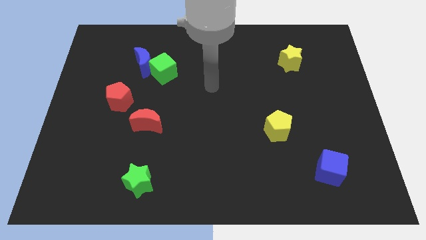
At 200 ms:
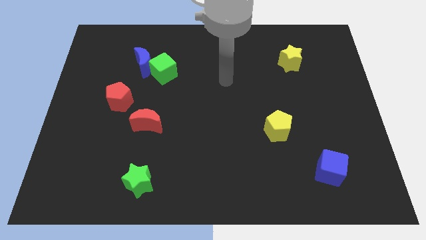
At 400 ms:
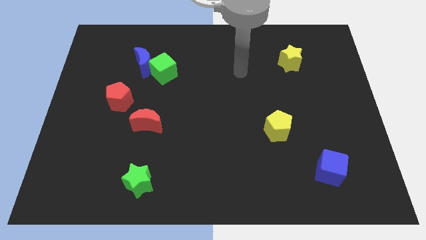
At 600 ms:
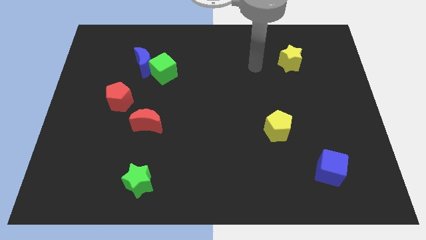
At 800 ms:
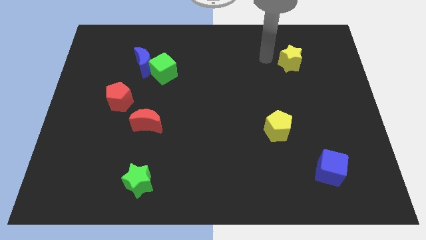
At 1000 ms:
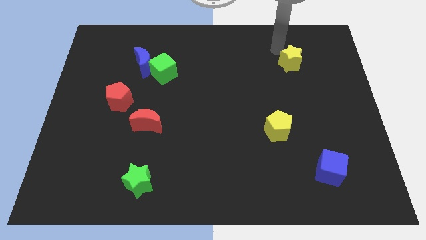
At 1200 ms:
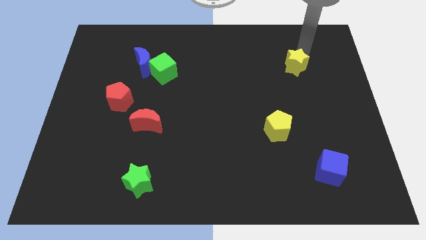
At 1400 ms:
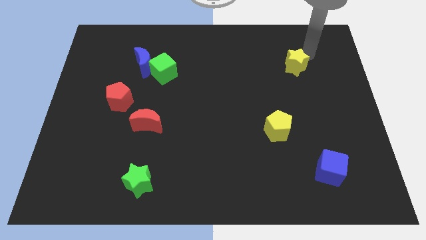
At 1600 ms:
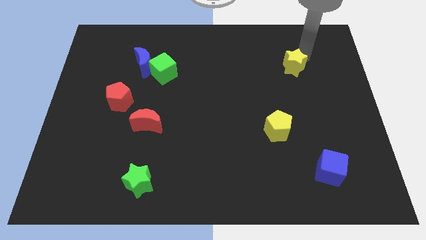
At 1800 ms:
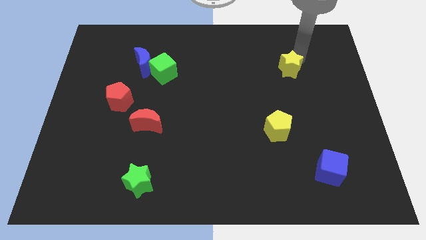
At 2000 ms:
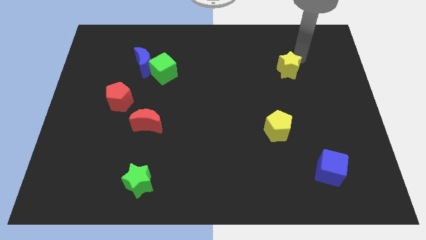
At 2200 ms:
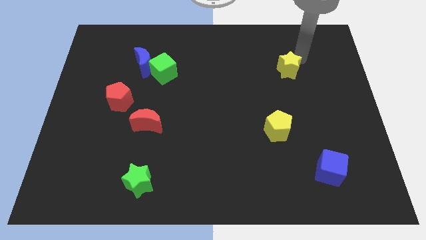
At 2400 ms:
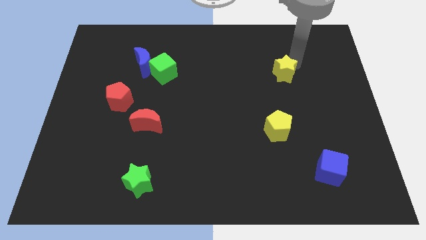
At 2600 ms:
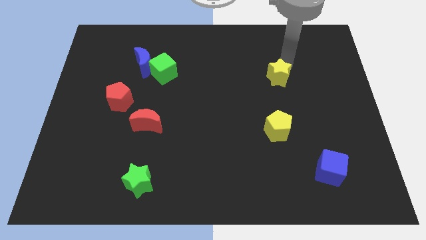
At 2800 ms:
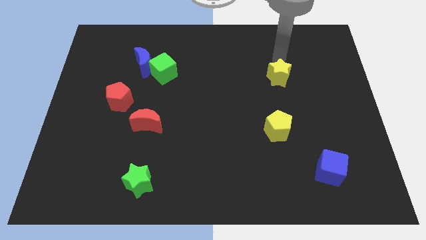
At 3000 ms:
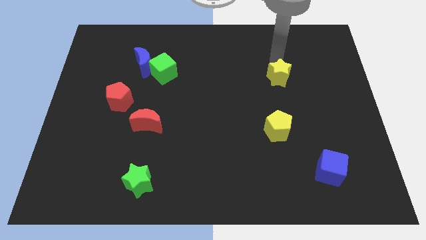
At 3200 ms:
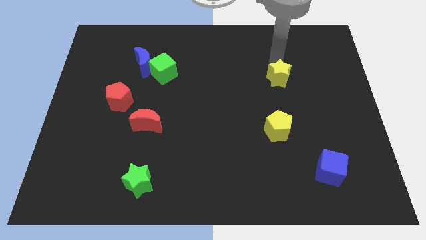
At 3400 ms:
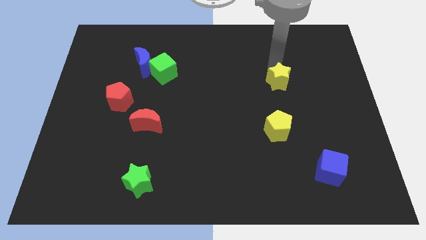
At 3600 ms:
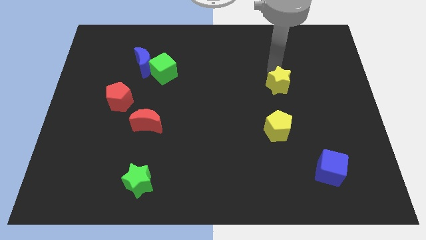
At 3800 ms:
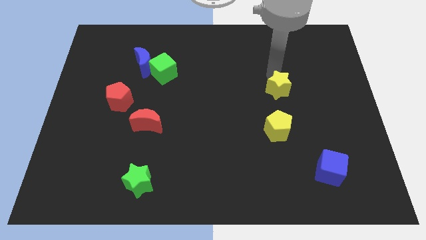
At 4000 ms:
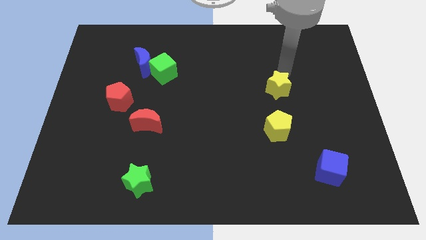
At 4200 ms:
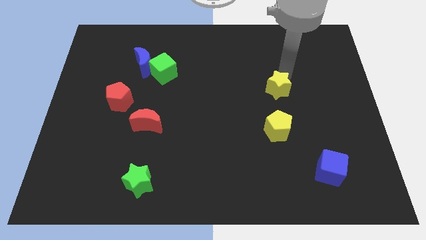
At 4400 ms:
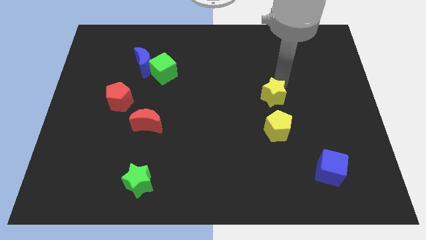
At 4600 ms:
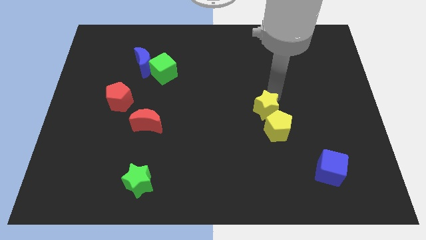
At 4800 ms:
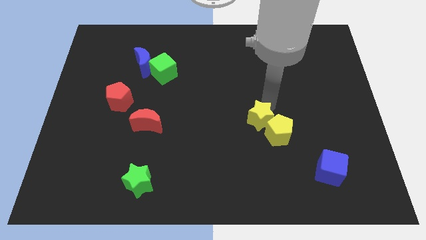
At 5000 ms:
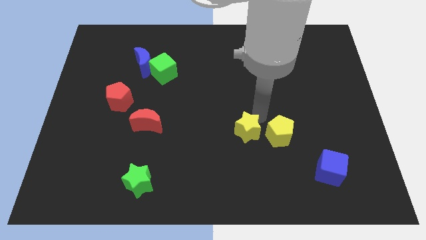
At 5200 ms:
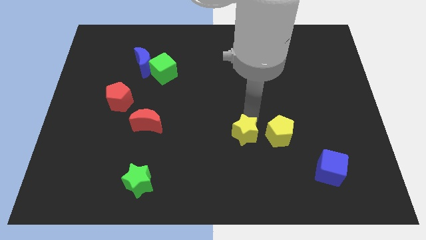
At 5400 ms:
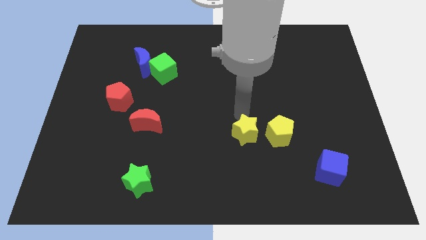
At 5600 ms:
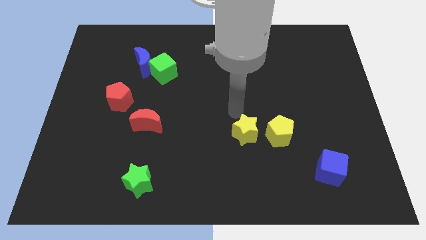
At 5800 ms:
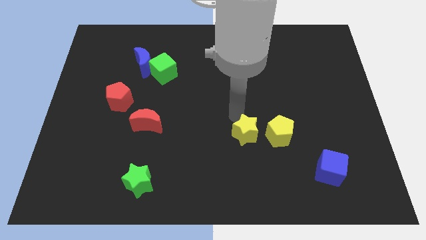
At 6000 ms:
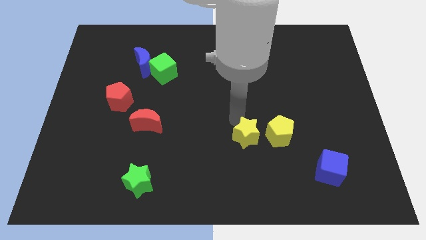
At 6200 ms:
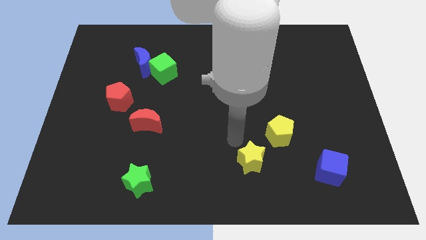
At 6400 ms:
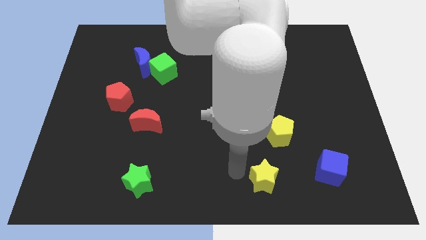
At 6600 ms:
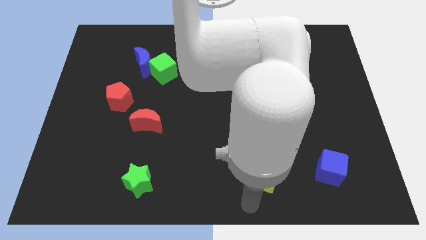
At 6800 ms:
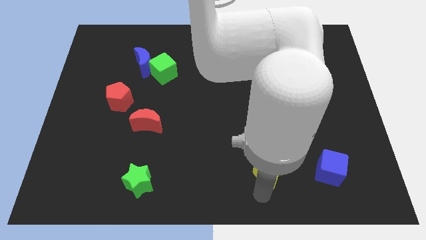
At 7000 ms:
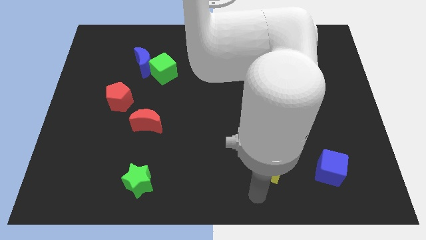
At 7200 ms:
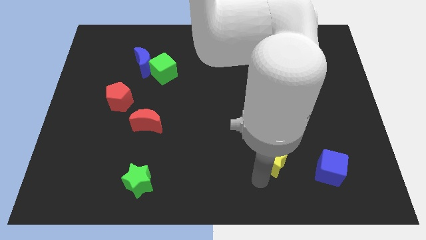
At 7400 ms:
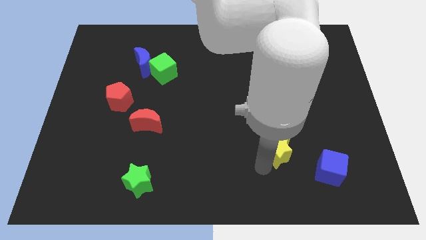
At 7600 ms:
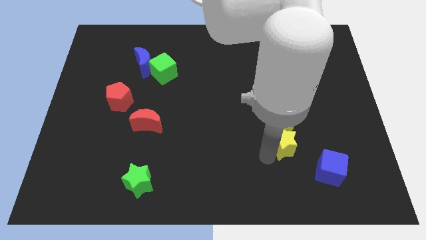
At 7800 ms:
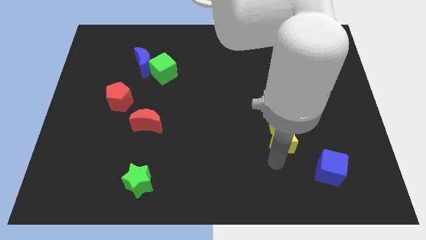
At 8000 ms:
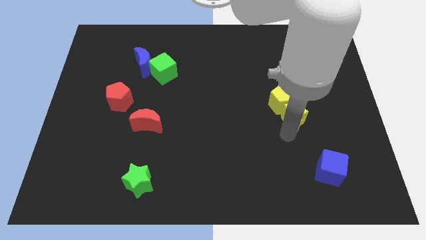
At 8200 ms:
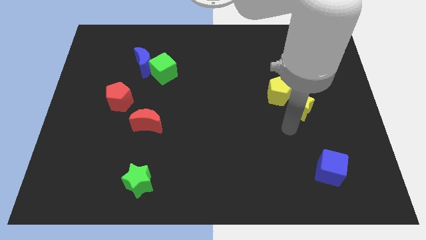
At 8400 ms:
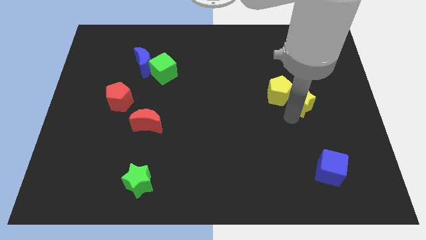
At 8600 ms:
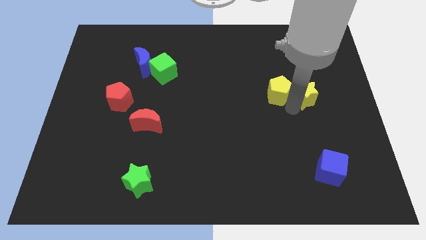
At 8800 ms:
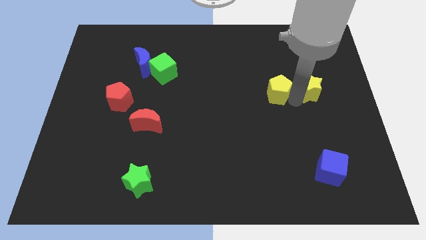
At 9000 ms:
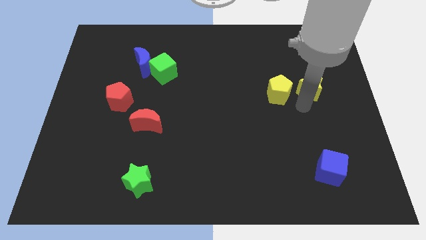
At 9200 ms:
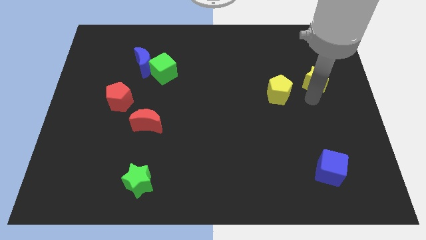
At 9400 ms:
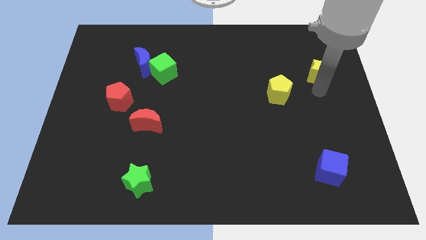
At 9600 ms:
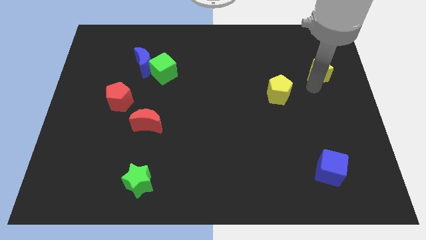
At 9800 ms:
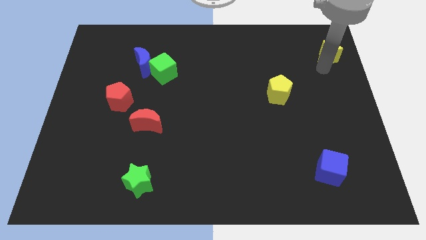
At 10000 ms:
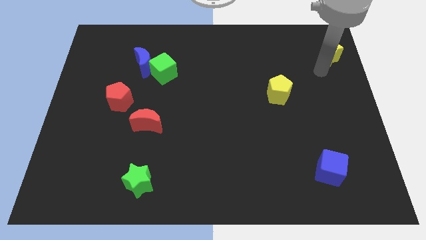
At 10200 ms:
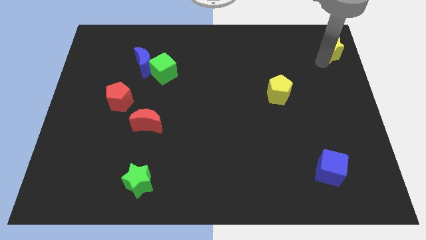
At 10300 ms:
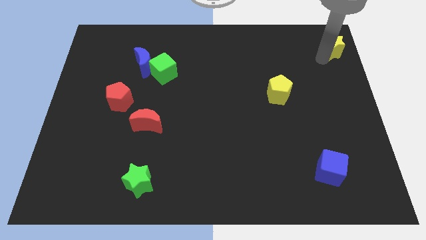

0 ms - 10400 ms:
push the yellow star to the top right of the board
